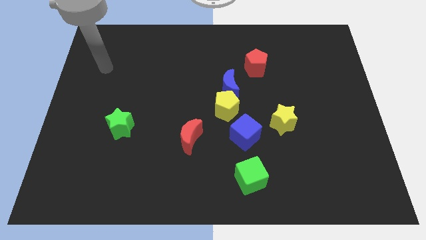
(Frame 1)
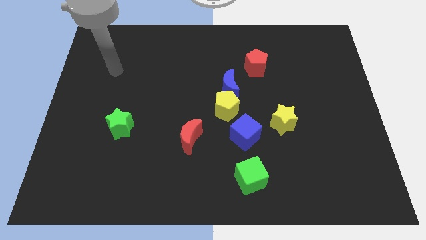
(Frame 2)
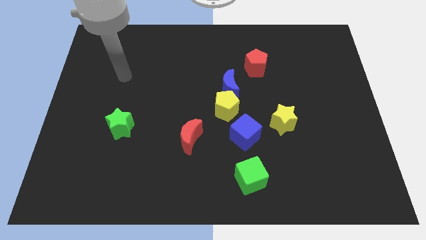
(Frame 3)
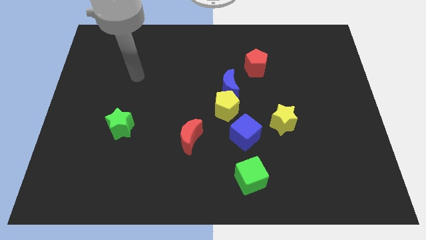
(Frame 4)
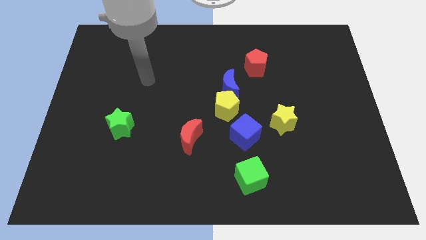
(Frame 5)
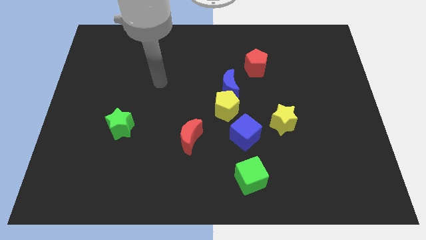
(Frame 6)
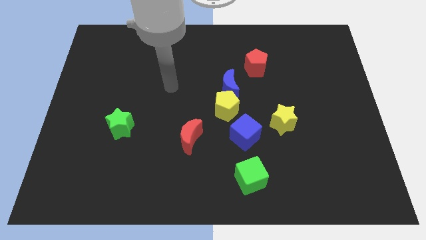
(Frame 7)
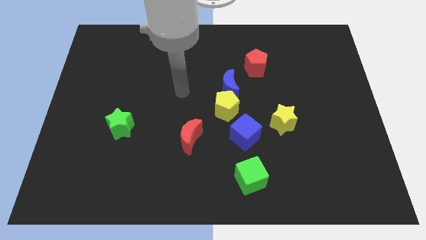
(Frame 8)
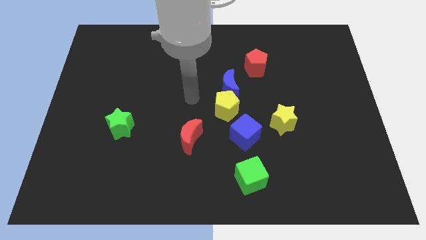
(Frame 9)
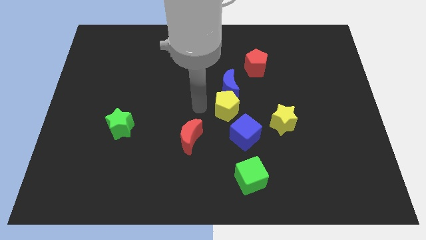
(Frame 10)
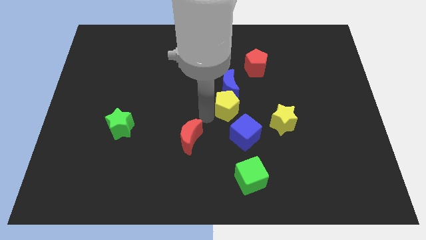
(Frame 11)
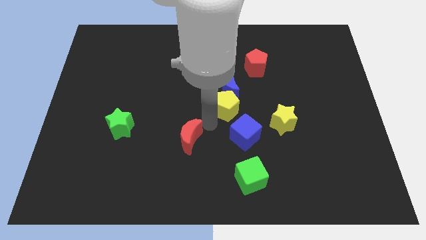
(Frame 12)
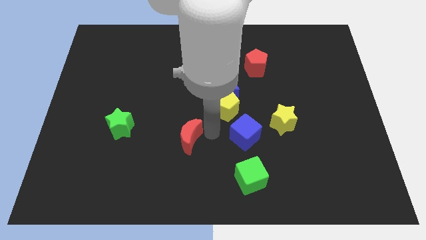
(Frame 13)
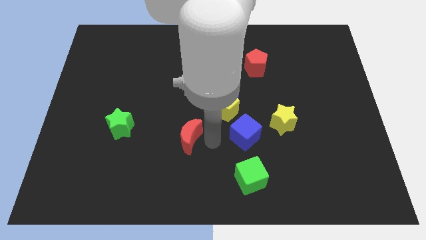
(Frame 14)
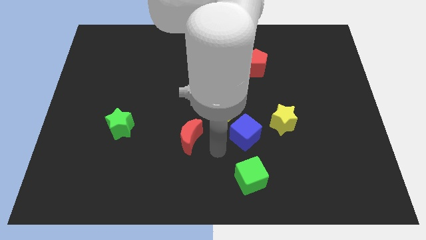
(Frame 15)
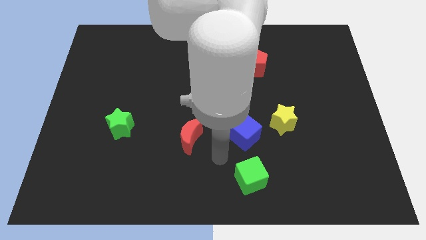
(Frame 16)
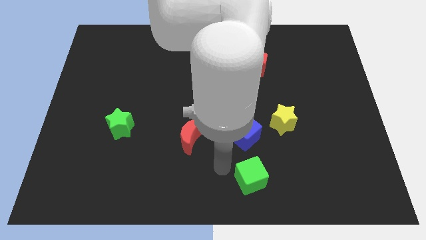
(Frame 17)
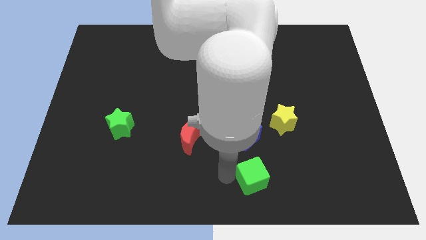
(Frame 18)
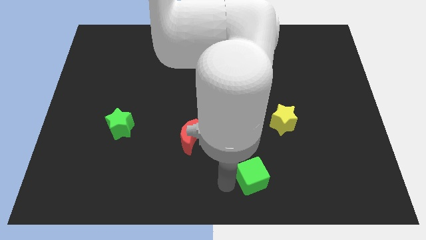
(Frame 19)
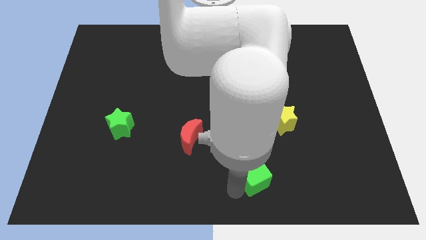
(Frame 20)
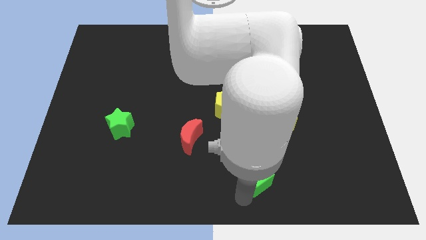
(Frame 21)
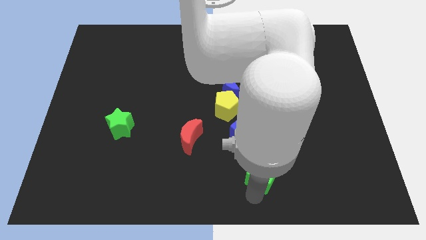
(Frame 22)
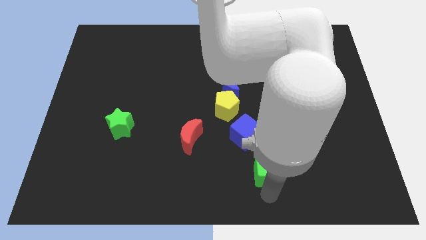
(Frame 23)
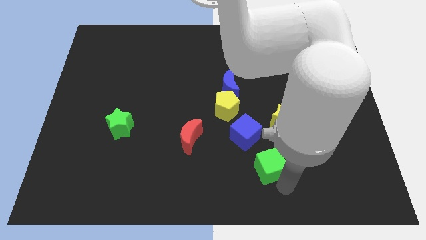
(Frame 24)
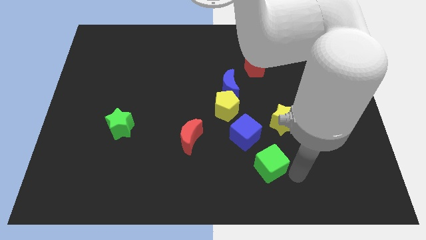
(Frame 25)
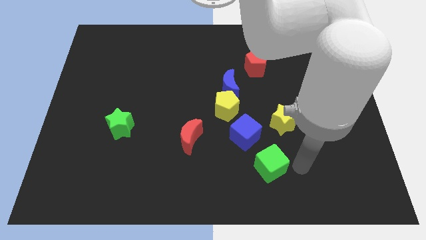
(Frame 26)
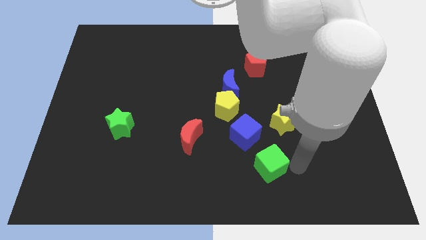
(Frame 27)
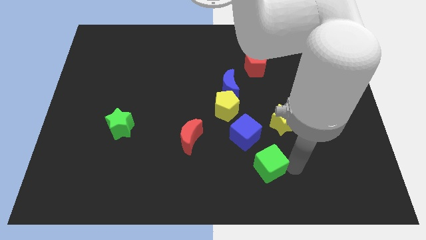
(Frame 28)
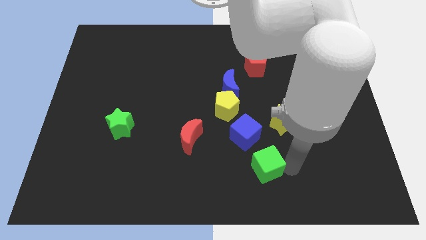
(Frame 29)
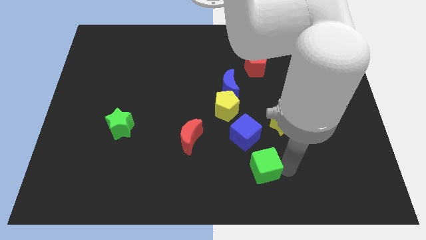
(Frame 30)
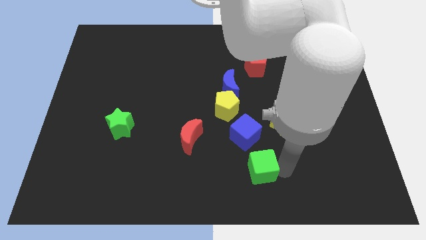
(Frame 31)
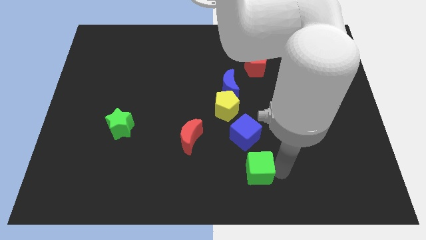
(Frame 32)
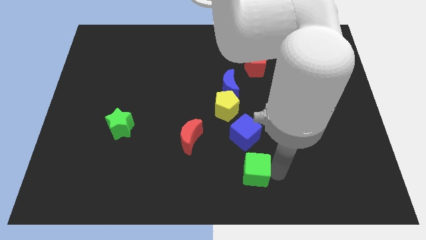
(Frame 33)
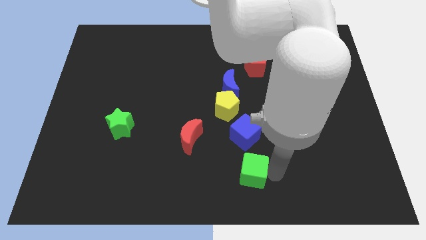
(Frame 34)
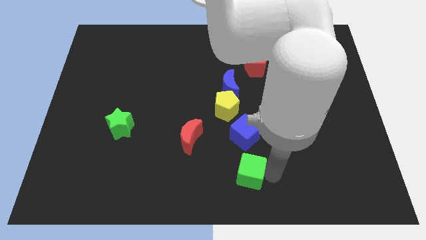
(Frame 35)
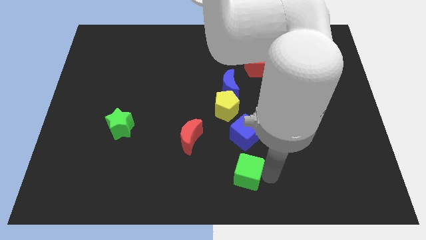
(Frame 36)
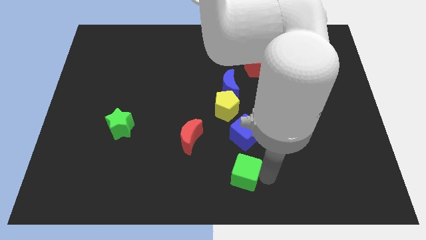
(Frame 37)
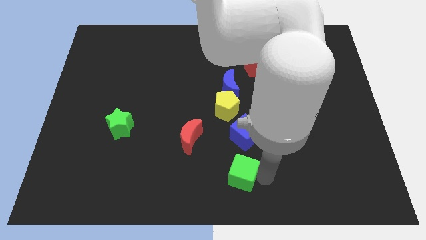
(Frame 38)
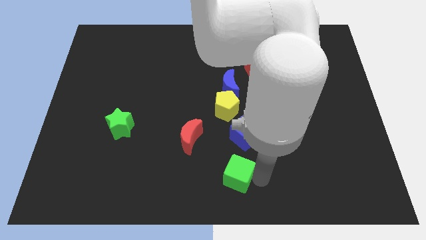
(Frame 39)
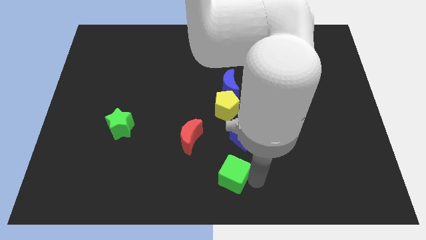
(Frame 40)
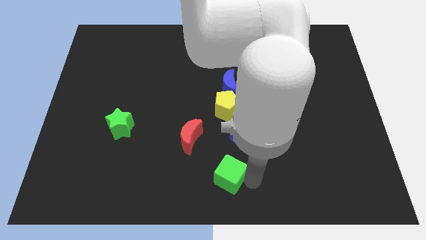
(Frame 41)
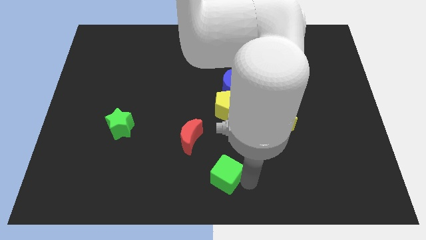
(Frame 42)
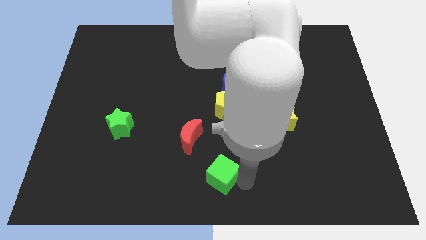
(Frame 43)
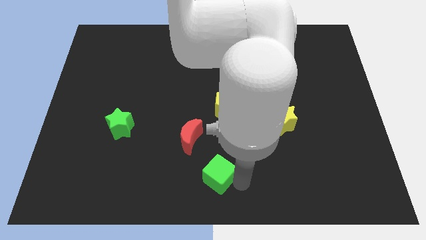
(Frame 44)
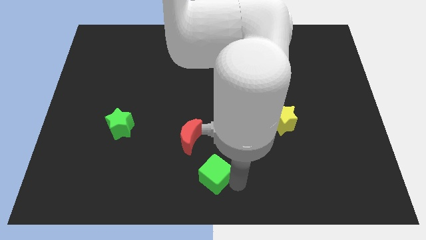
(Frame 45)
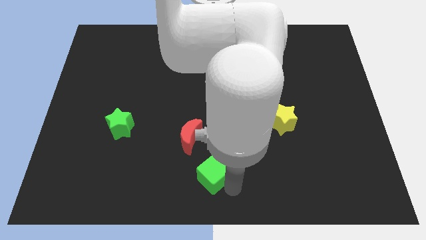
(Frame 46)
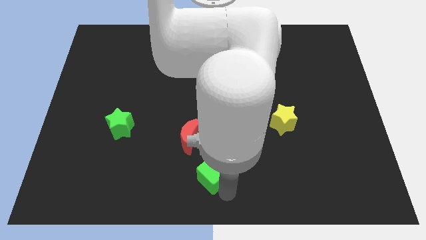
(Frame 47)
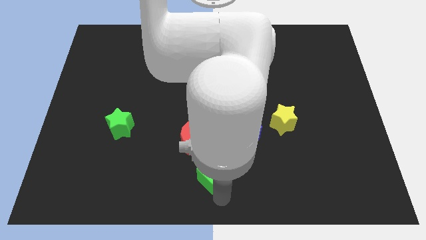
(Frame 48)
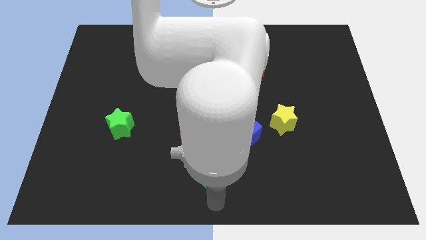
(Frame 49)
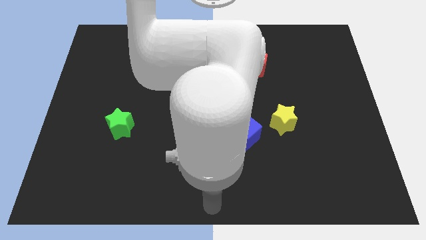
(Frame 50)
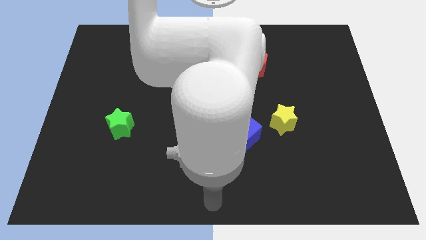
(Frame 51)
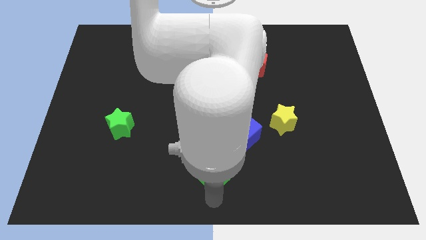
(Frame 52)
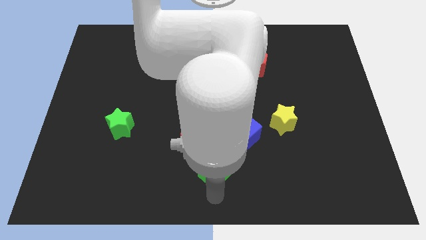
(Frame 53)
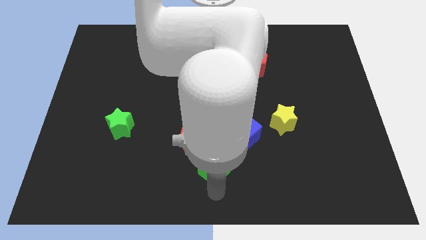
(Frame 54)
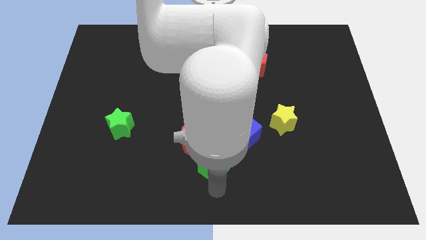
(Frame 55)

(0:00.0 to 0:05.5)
slide the green cube up and then left a little bit

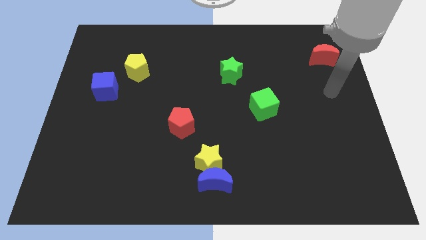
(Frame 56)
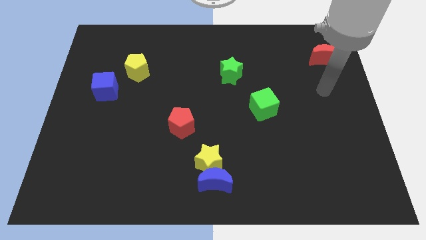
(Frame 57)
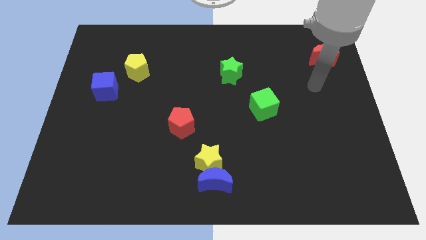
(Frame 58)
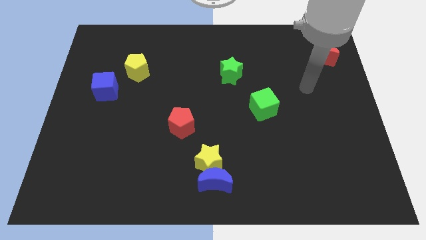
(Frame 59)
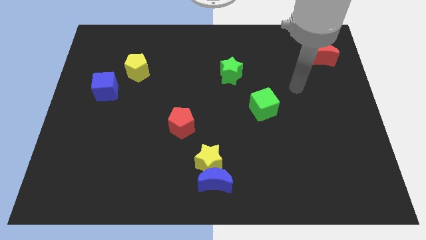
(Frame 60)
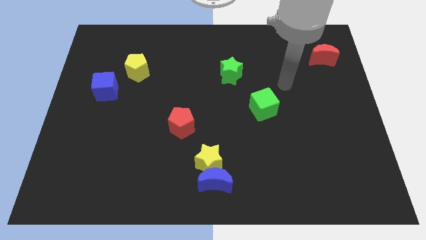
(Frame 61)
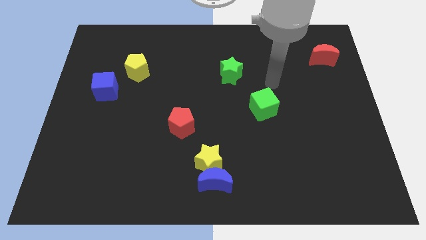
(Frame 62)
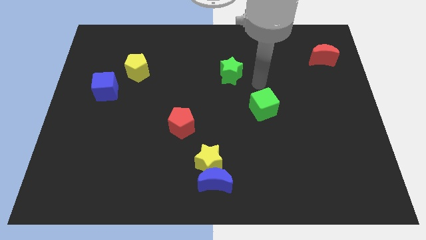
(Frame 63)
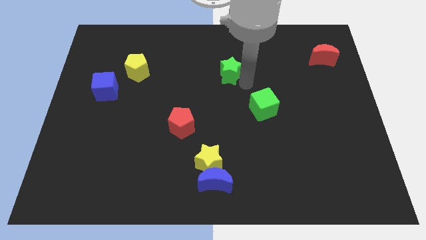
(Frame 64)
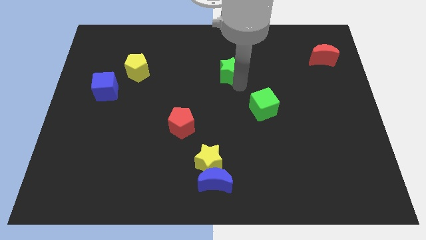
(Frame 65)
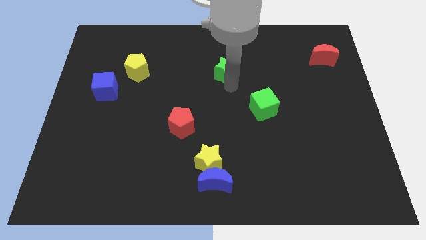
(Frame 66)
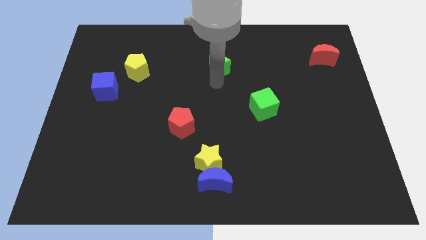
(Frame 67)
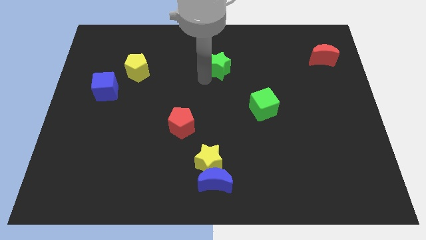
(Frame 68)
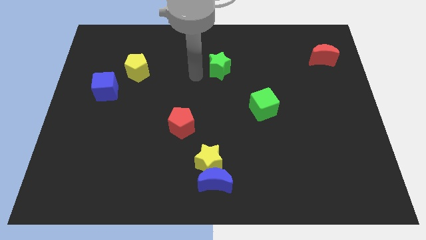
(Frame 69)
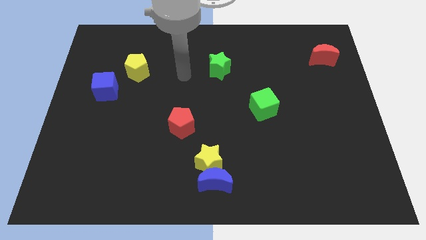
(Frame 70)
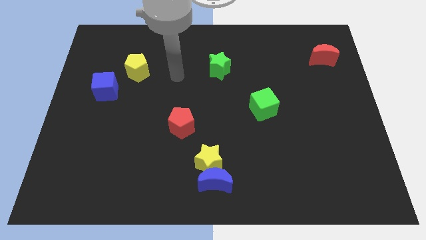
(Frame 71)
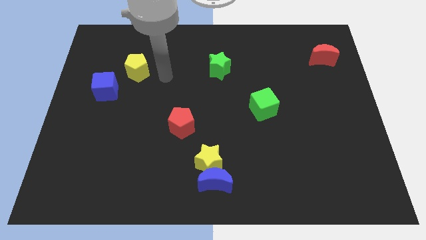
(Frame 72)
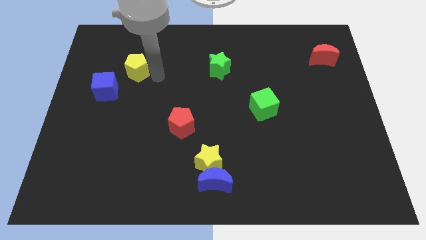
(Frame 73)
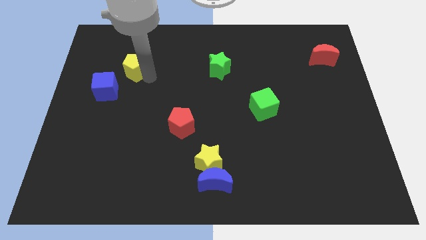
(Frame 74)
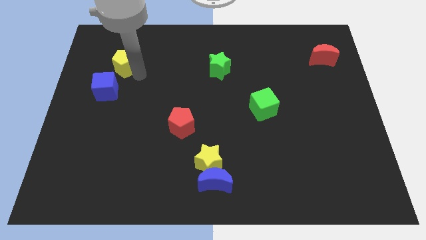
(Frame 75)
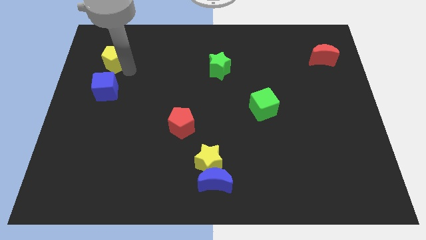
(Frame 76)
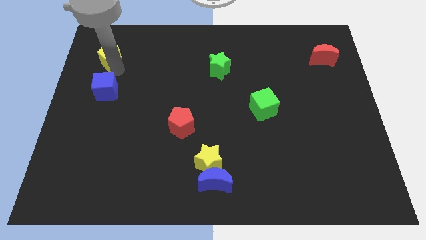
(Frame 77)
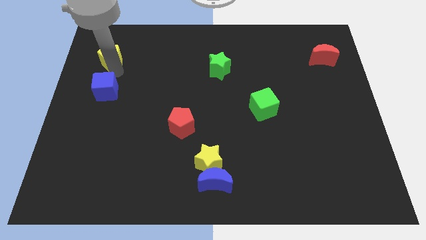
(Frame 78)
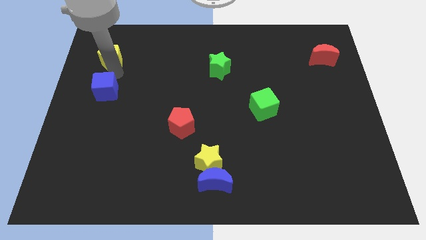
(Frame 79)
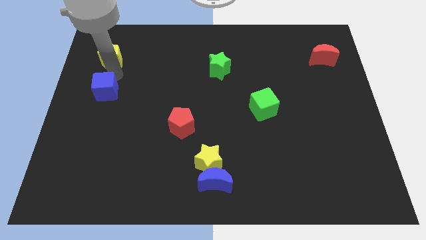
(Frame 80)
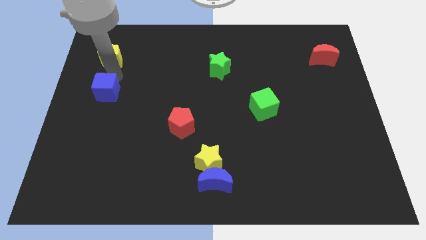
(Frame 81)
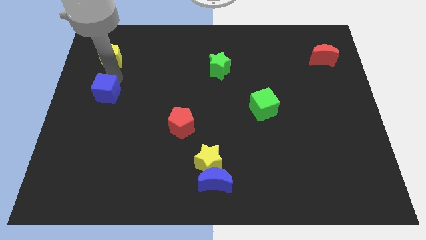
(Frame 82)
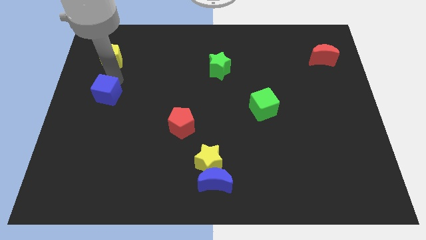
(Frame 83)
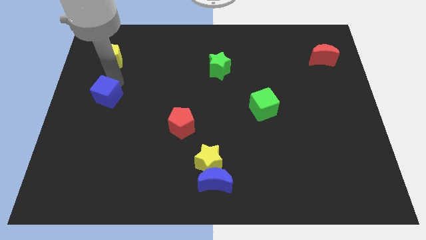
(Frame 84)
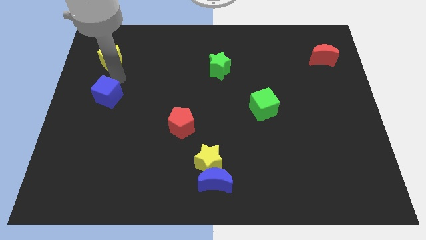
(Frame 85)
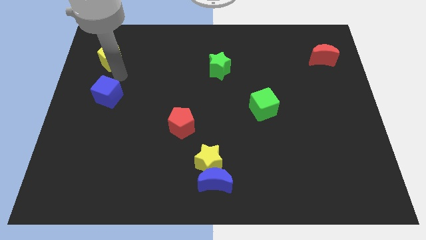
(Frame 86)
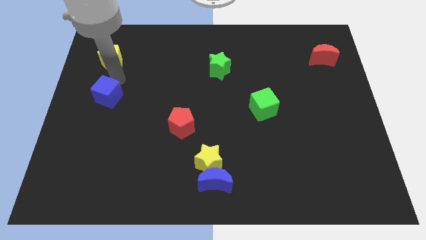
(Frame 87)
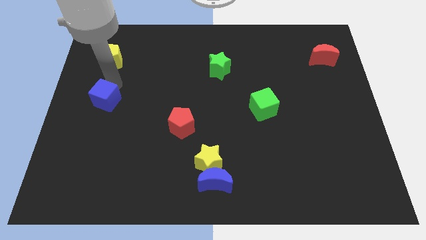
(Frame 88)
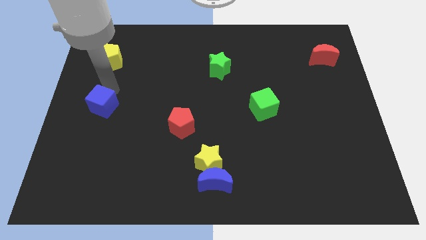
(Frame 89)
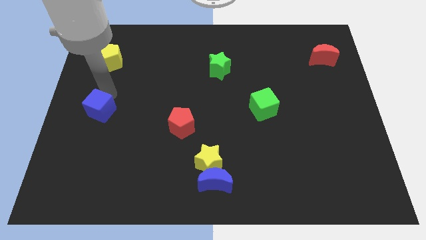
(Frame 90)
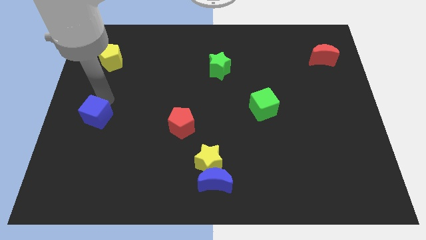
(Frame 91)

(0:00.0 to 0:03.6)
push the blue cube a little bit down
